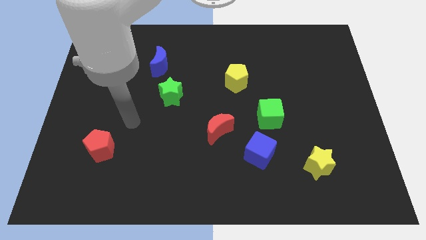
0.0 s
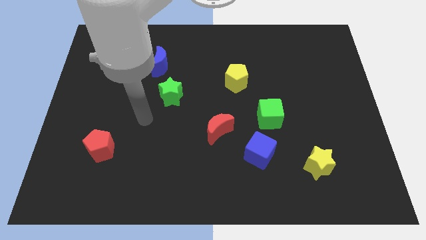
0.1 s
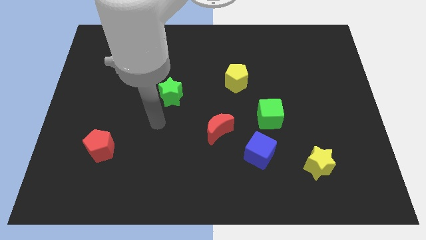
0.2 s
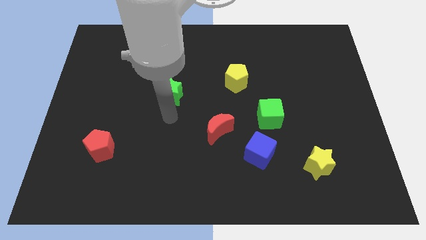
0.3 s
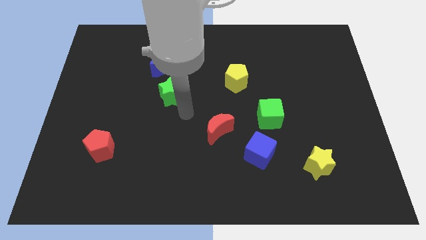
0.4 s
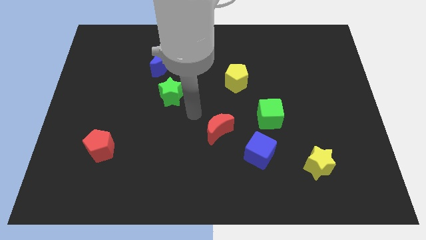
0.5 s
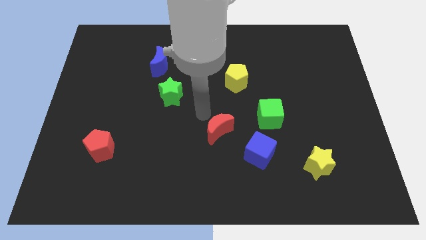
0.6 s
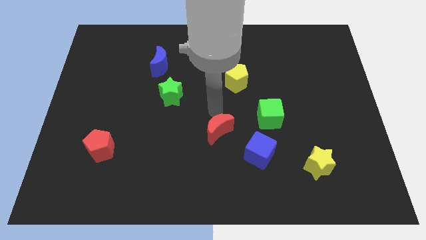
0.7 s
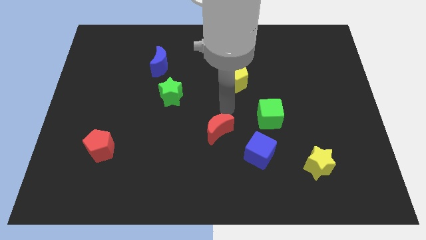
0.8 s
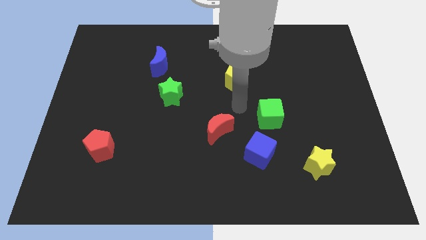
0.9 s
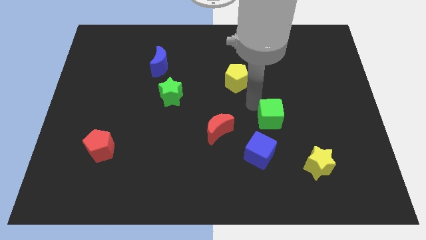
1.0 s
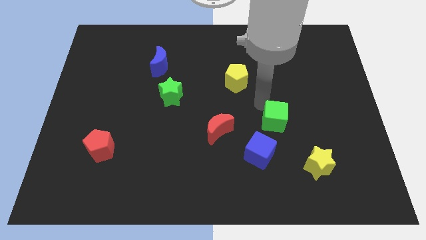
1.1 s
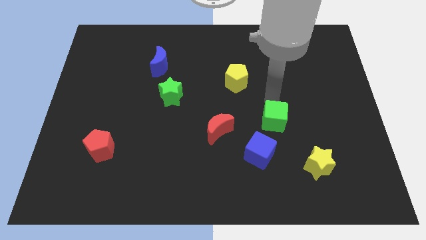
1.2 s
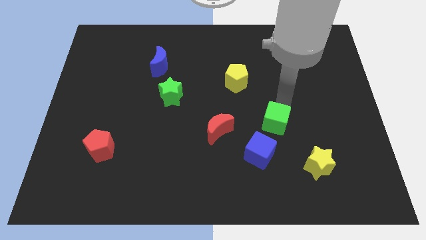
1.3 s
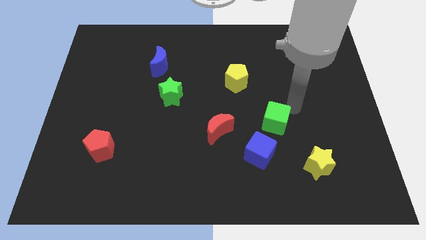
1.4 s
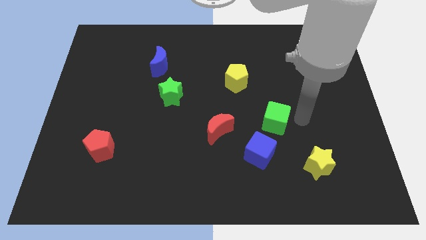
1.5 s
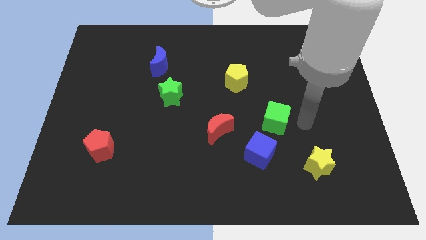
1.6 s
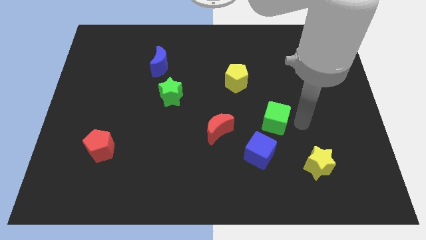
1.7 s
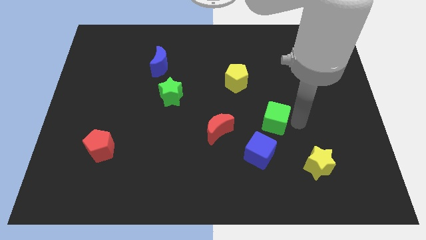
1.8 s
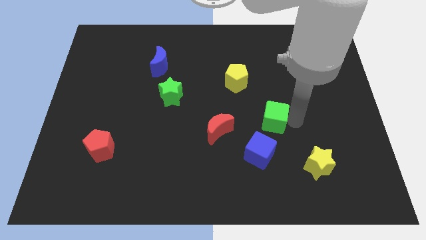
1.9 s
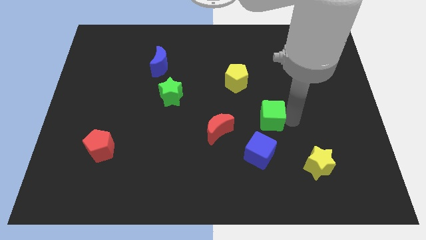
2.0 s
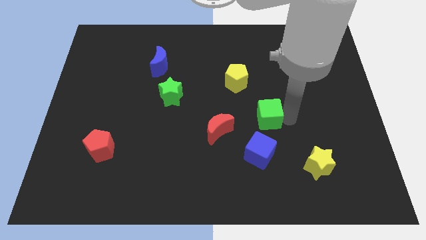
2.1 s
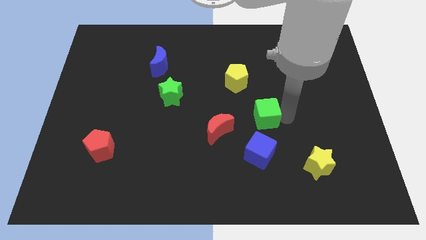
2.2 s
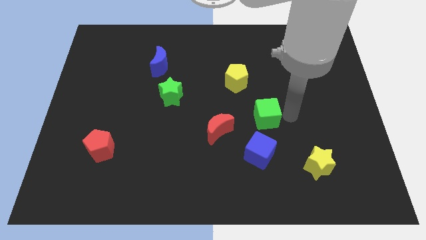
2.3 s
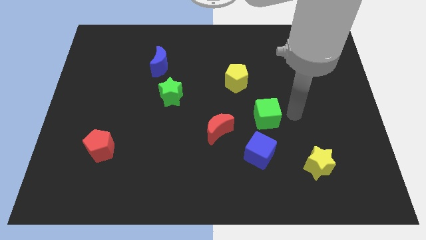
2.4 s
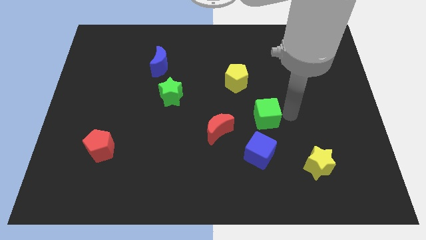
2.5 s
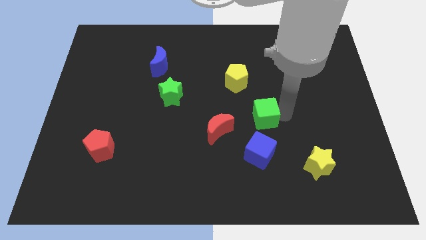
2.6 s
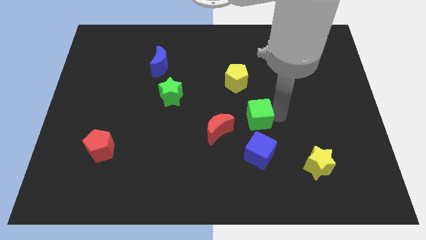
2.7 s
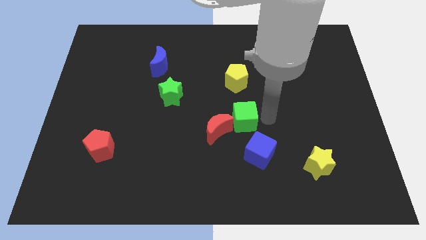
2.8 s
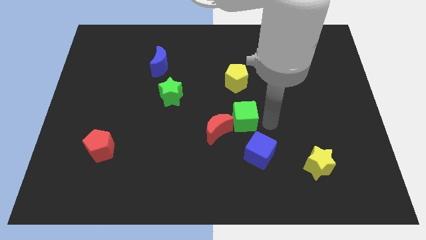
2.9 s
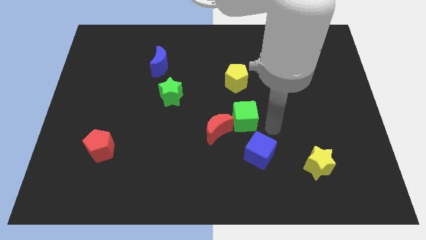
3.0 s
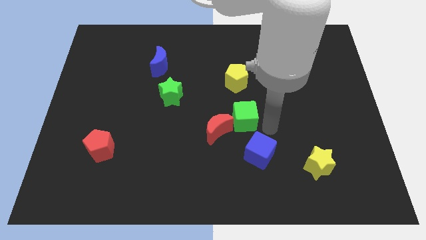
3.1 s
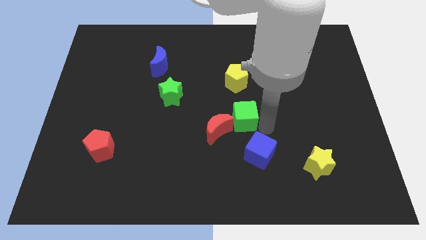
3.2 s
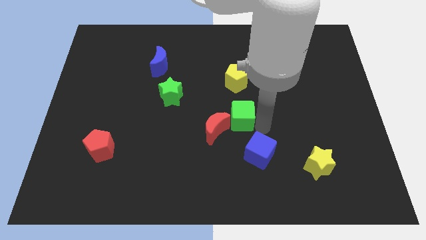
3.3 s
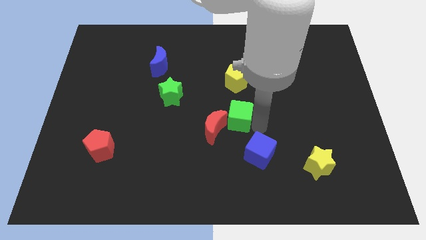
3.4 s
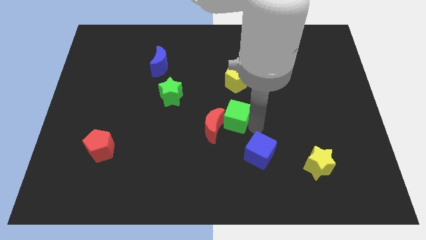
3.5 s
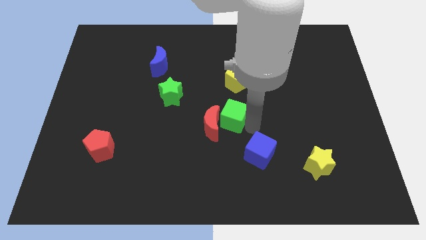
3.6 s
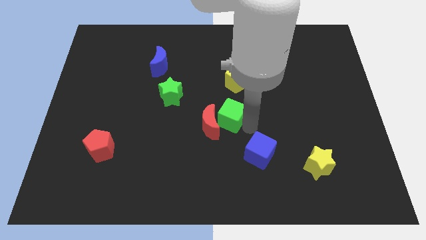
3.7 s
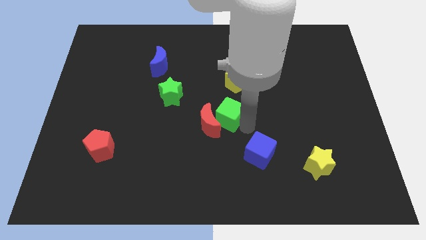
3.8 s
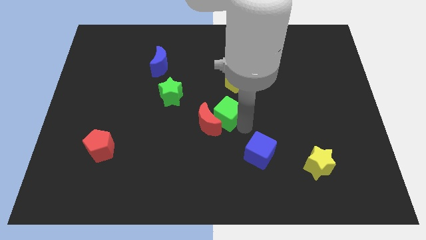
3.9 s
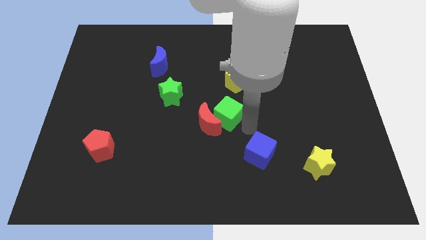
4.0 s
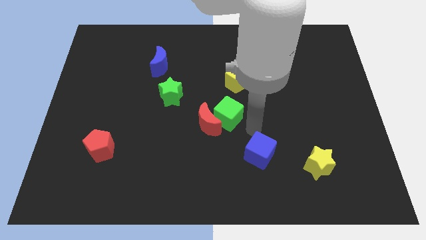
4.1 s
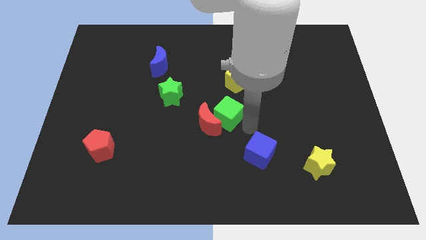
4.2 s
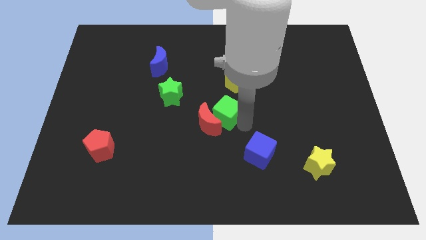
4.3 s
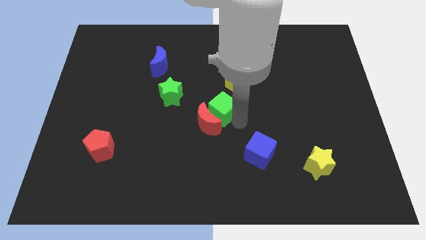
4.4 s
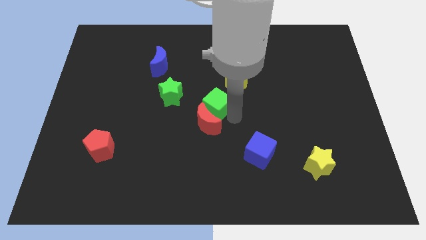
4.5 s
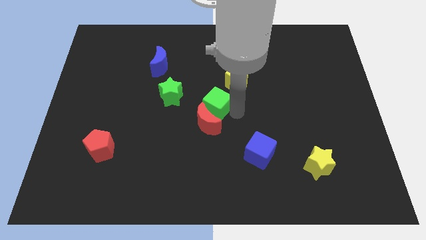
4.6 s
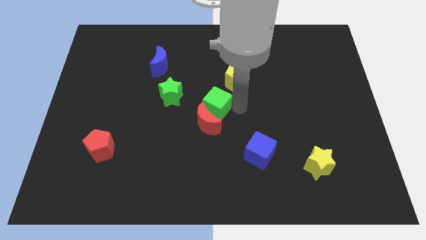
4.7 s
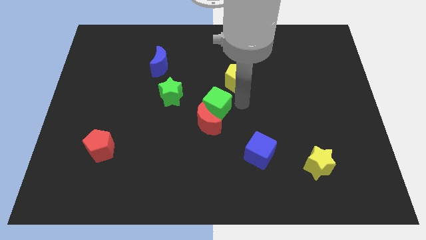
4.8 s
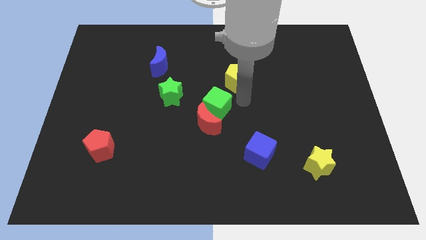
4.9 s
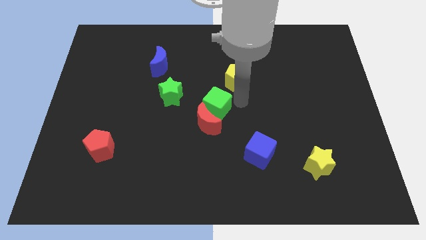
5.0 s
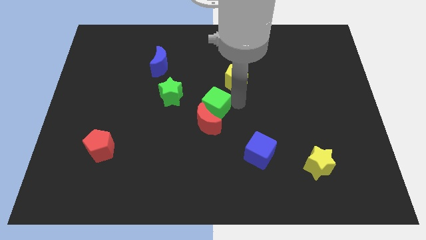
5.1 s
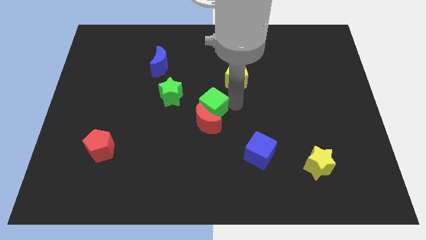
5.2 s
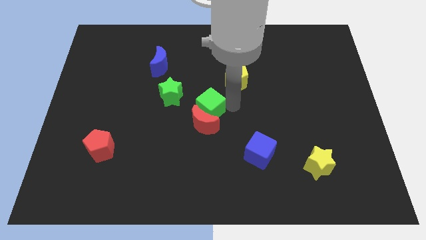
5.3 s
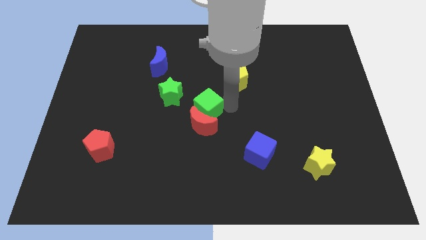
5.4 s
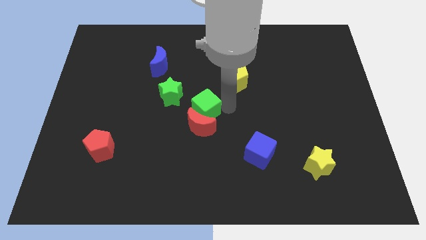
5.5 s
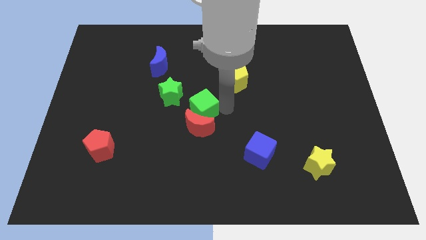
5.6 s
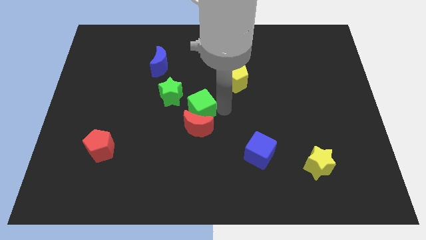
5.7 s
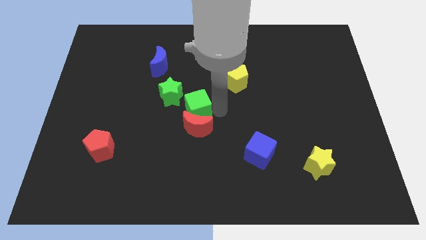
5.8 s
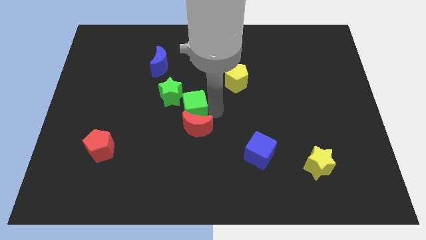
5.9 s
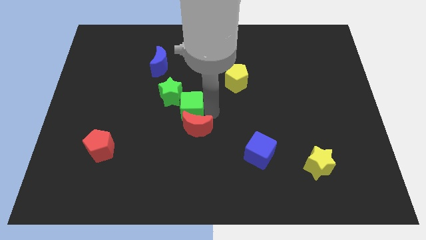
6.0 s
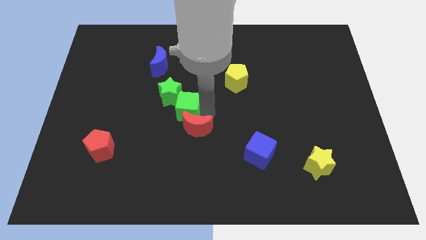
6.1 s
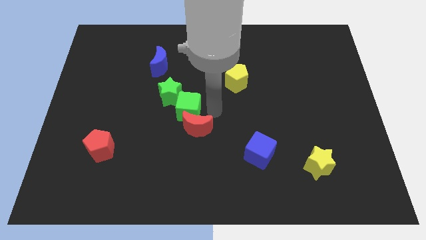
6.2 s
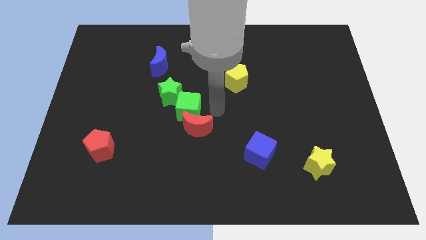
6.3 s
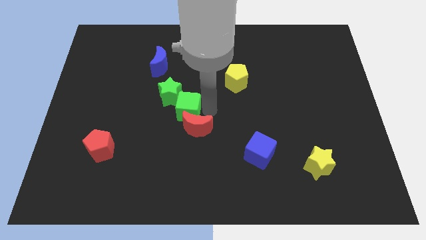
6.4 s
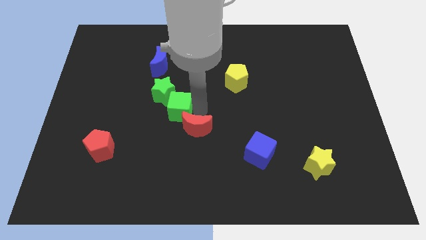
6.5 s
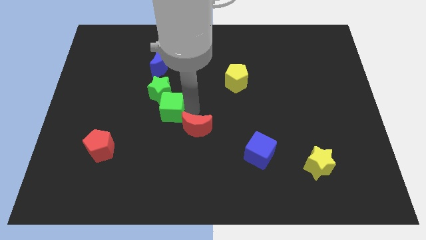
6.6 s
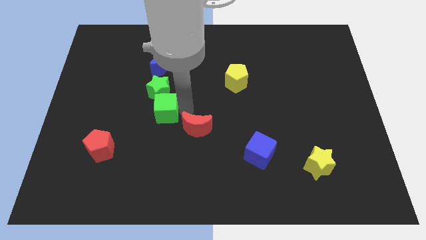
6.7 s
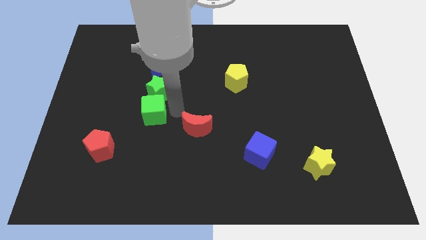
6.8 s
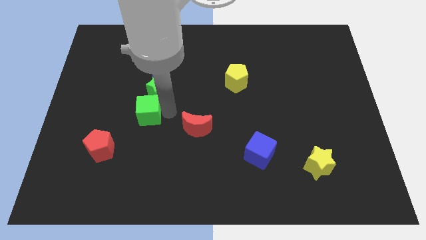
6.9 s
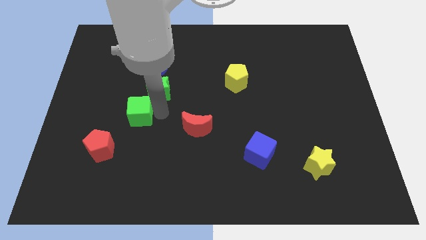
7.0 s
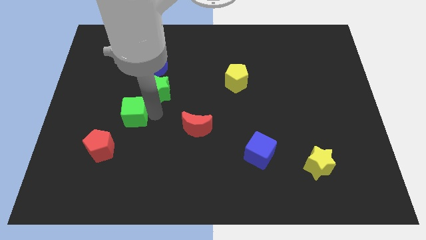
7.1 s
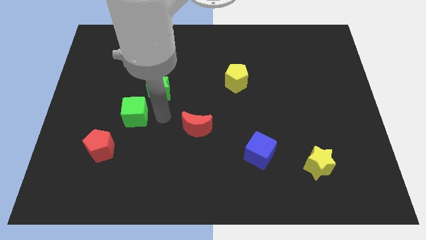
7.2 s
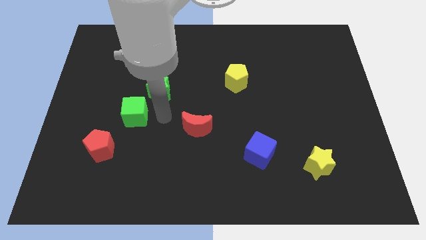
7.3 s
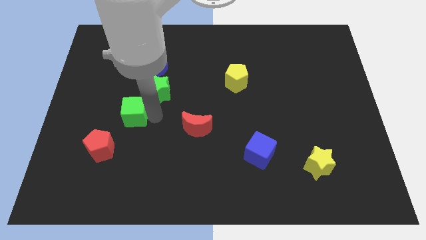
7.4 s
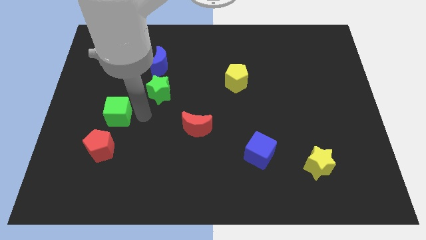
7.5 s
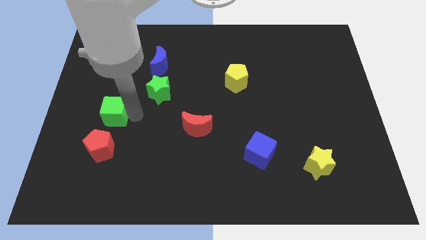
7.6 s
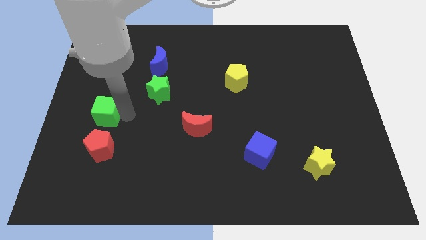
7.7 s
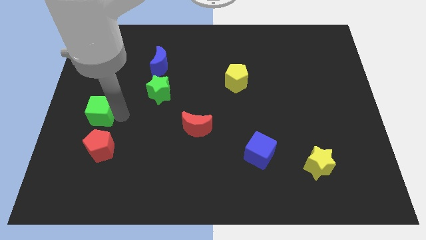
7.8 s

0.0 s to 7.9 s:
push the green cube to the center left

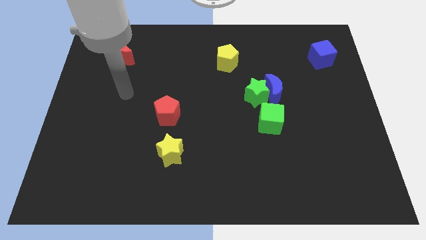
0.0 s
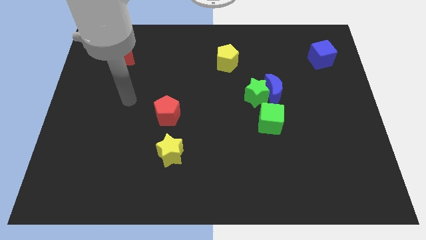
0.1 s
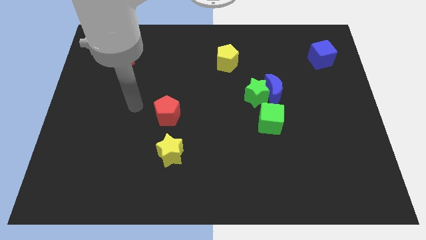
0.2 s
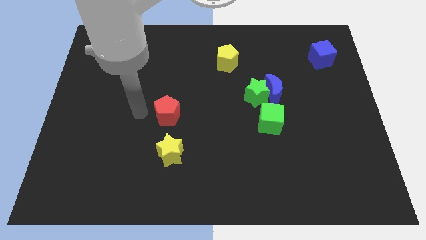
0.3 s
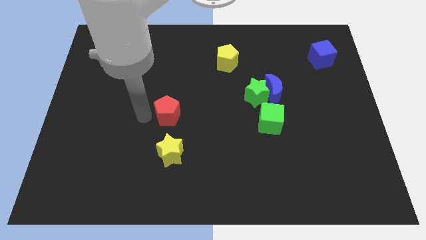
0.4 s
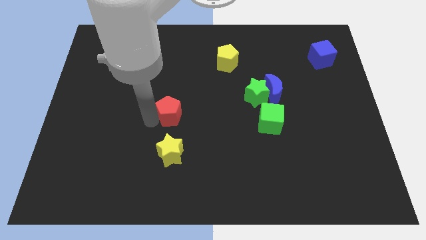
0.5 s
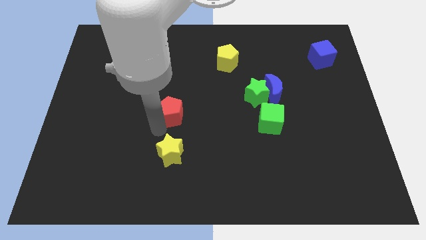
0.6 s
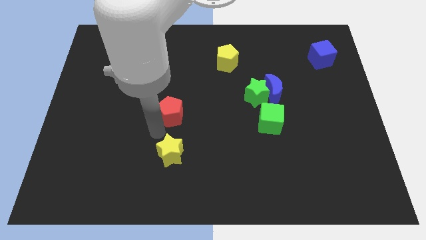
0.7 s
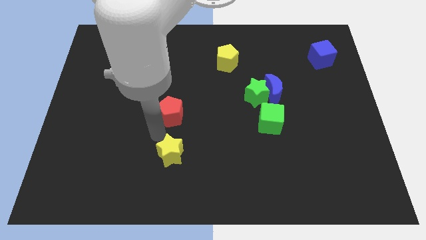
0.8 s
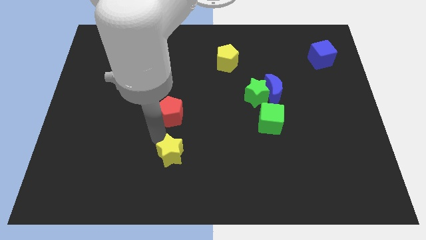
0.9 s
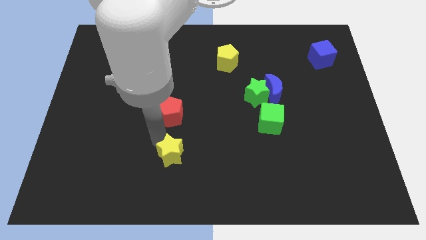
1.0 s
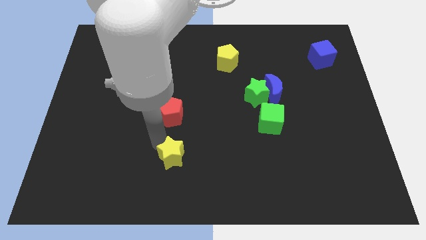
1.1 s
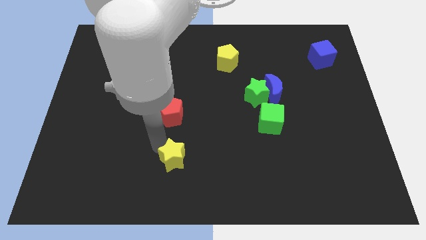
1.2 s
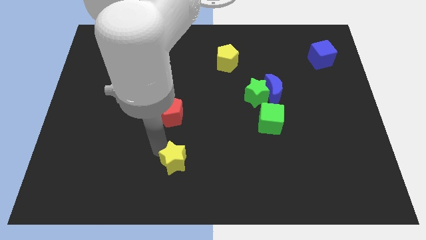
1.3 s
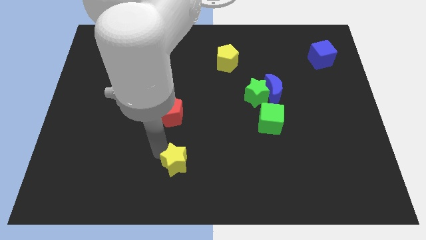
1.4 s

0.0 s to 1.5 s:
put the yellow star to the bottom
